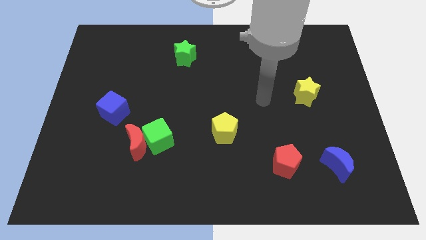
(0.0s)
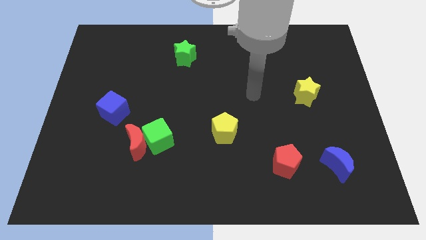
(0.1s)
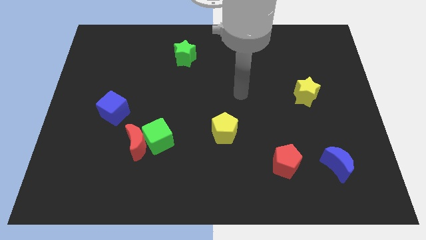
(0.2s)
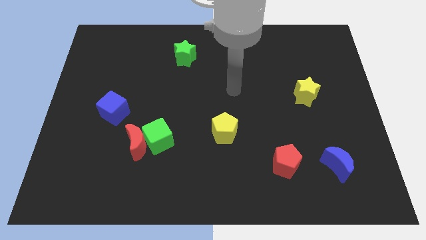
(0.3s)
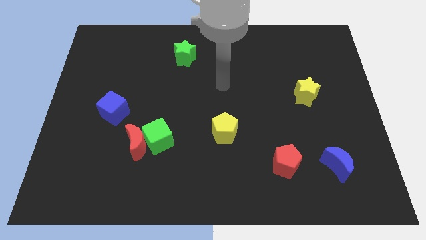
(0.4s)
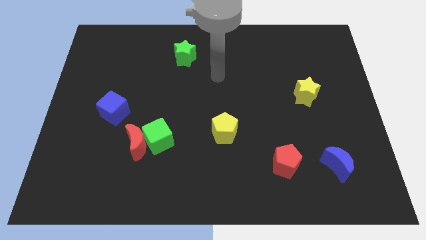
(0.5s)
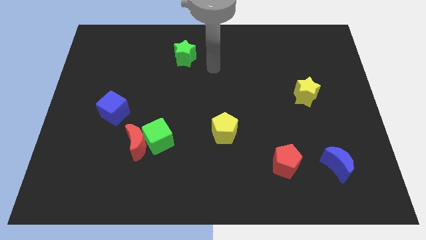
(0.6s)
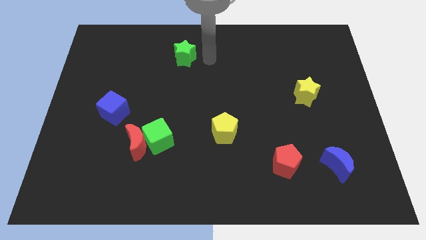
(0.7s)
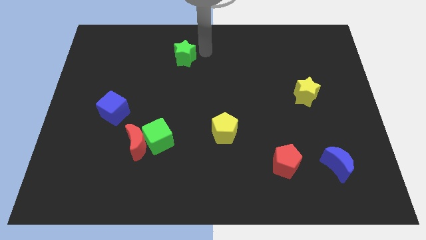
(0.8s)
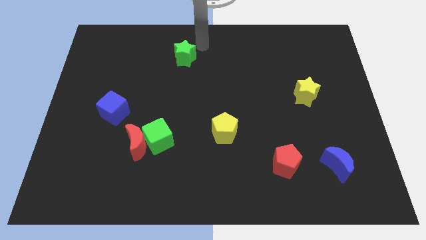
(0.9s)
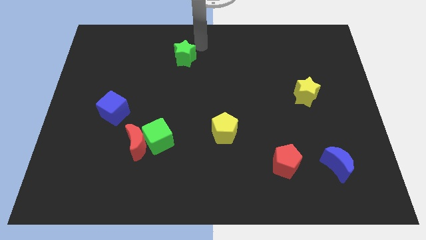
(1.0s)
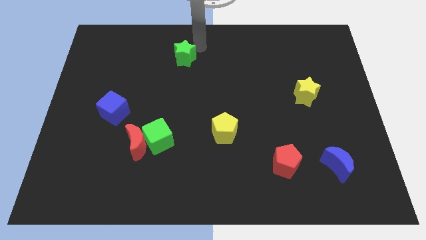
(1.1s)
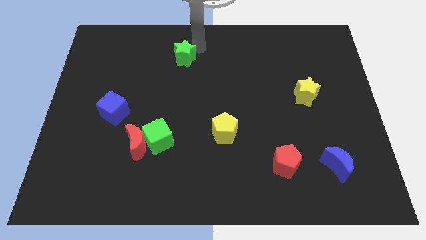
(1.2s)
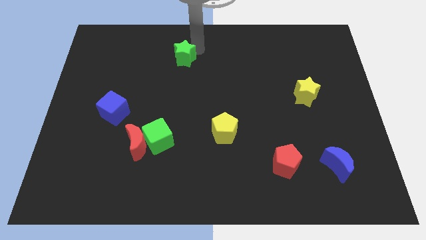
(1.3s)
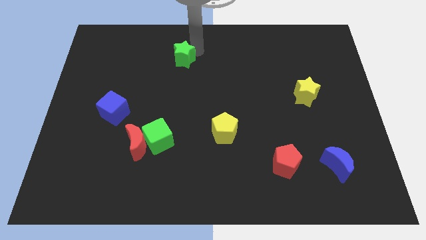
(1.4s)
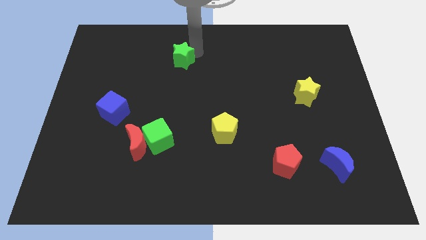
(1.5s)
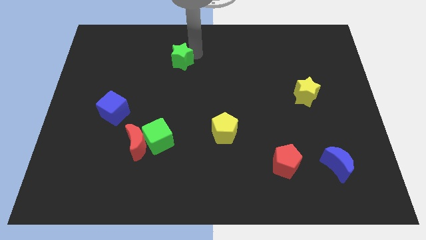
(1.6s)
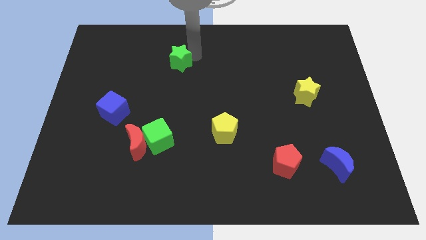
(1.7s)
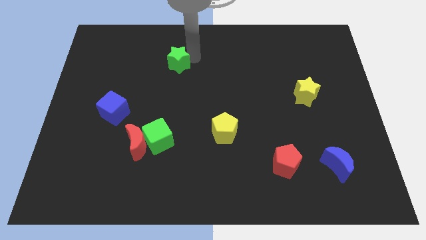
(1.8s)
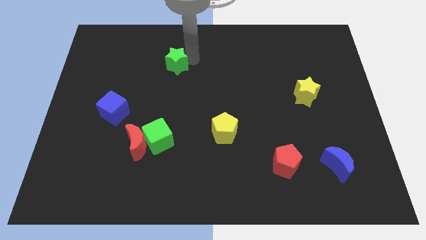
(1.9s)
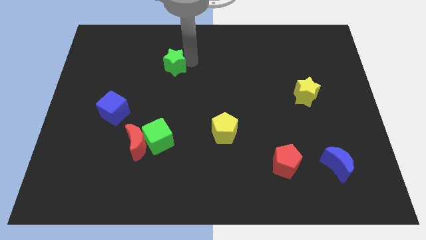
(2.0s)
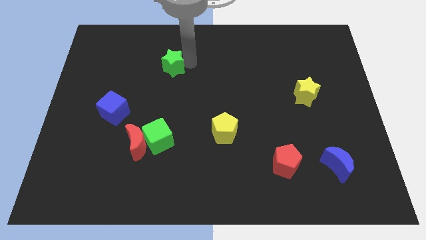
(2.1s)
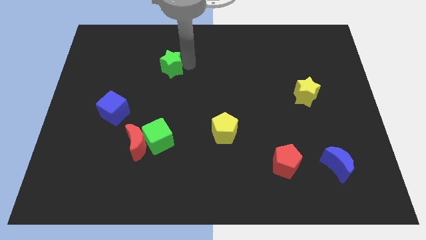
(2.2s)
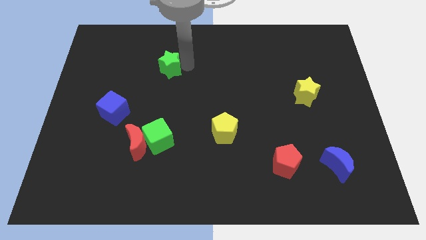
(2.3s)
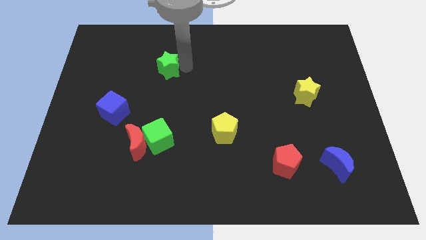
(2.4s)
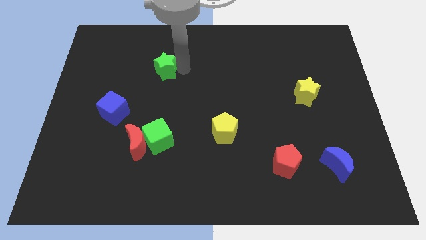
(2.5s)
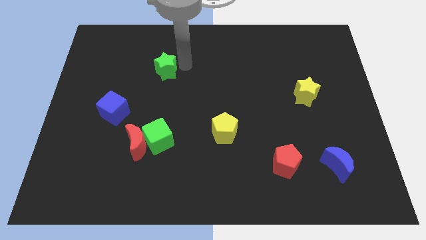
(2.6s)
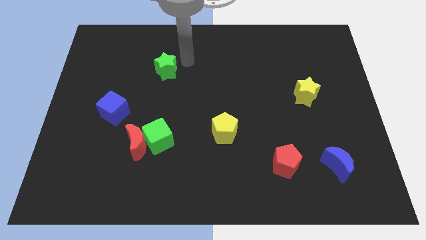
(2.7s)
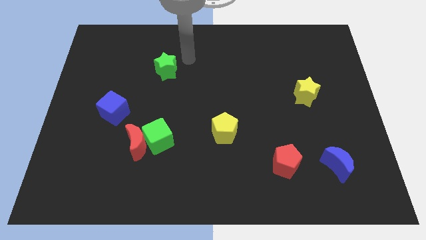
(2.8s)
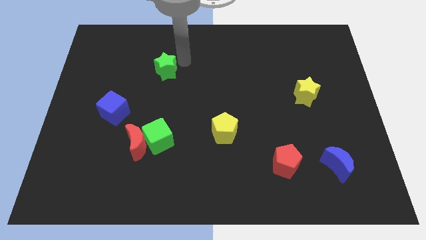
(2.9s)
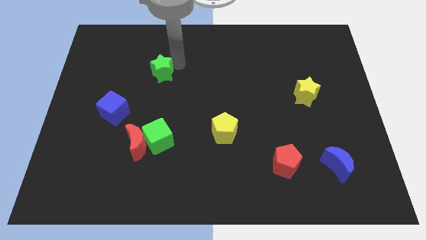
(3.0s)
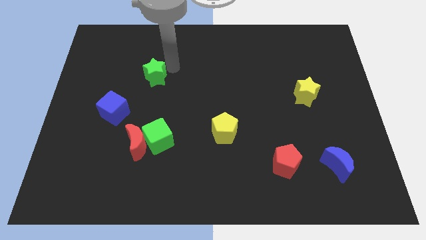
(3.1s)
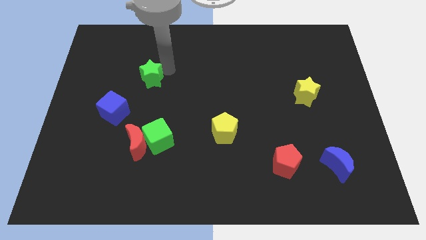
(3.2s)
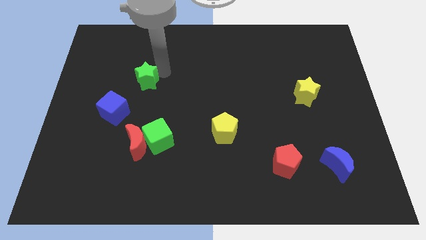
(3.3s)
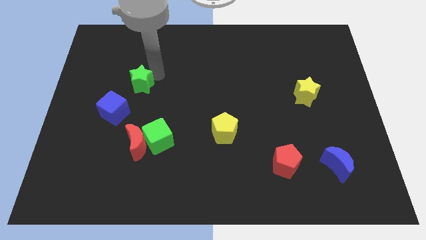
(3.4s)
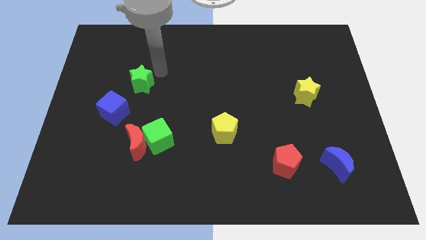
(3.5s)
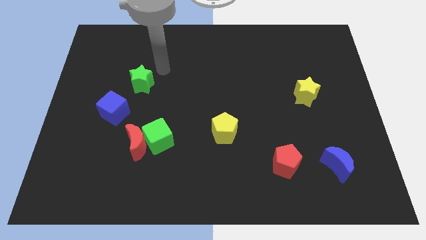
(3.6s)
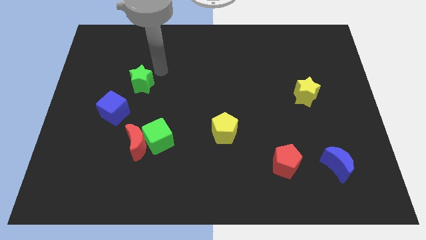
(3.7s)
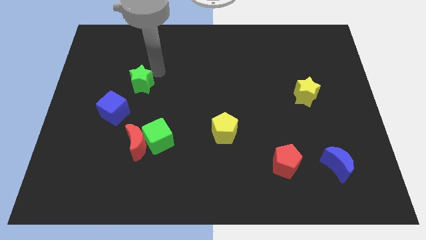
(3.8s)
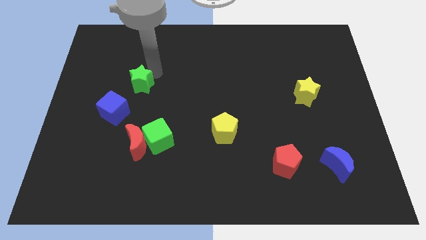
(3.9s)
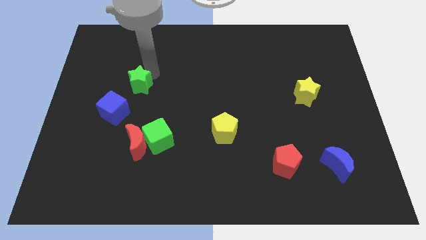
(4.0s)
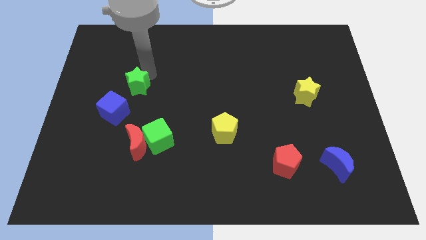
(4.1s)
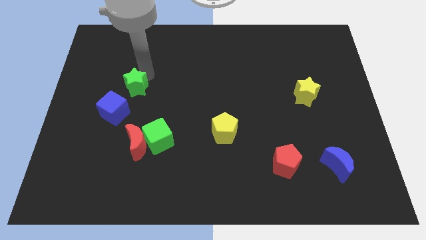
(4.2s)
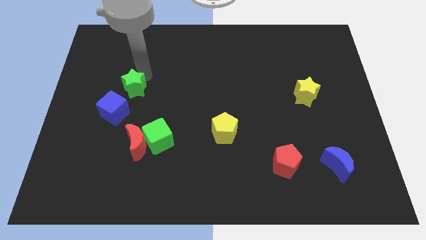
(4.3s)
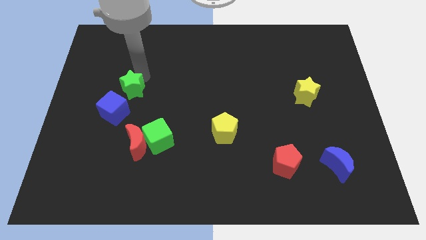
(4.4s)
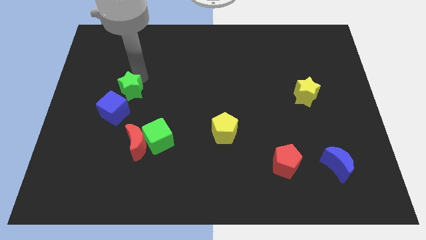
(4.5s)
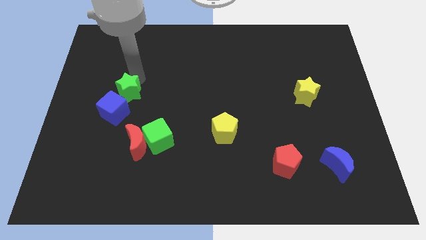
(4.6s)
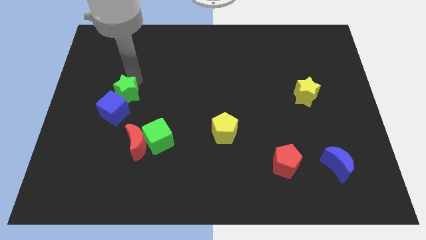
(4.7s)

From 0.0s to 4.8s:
push the green star close to the blue cube

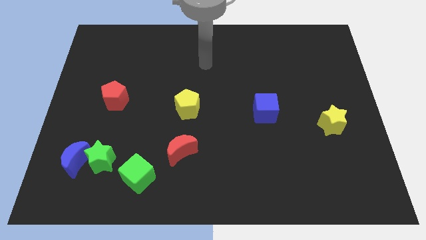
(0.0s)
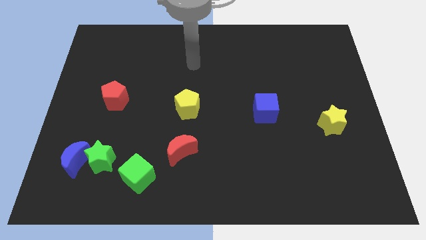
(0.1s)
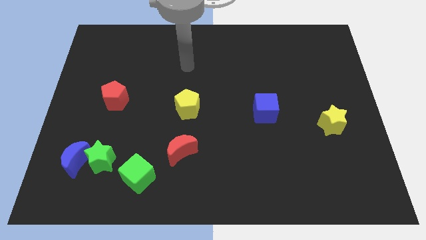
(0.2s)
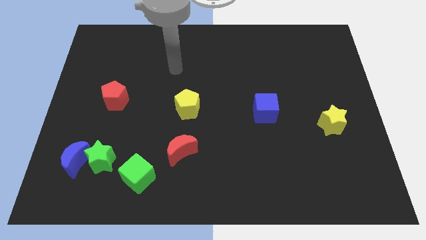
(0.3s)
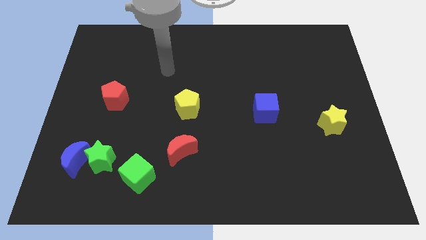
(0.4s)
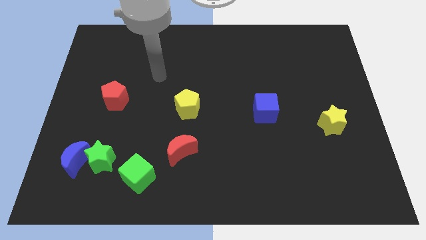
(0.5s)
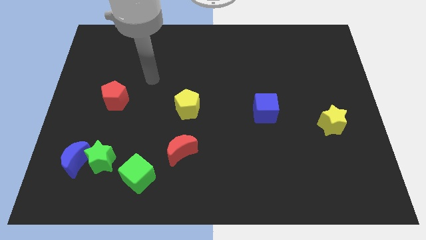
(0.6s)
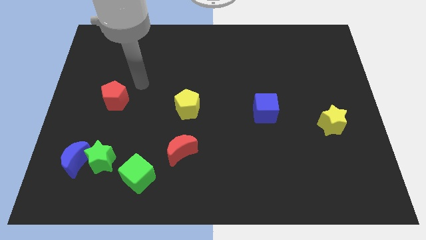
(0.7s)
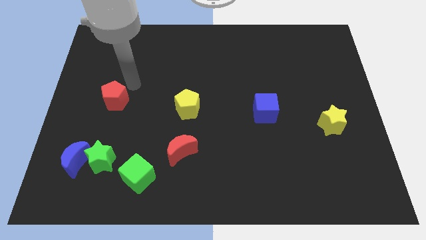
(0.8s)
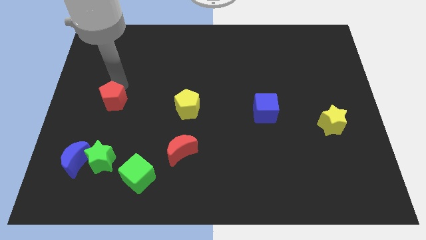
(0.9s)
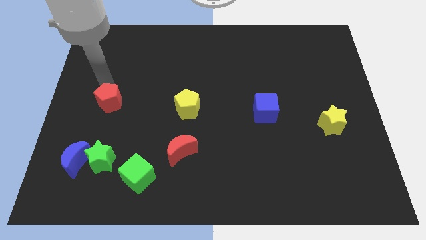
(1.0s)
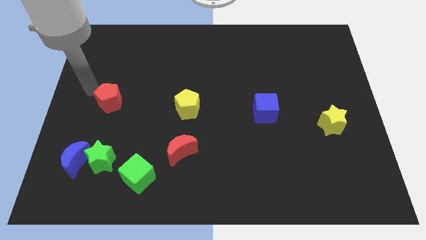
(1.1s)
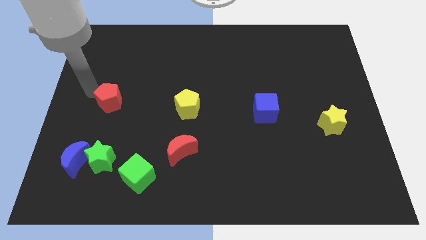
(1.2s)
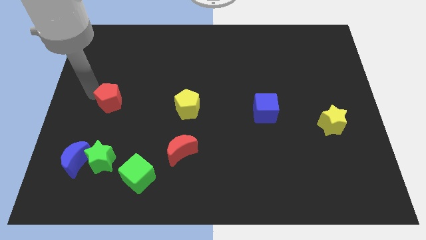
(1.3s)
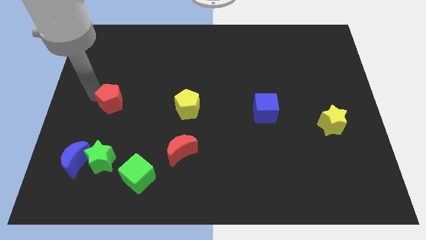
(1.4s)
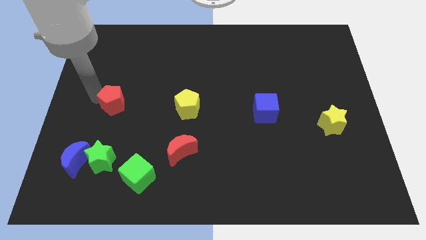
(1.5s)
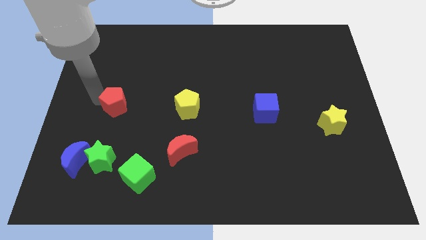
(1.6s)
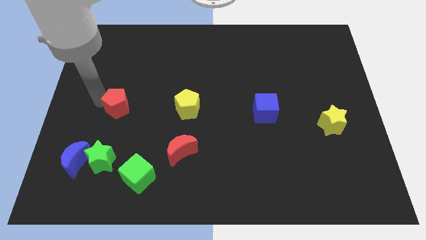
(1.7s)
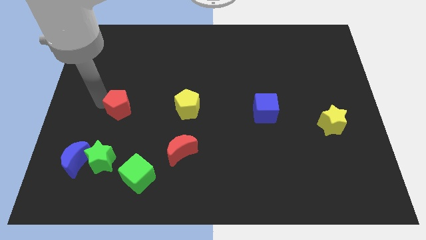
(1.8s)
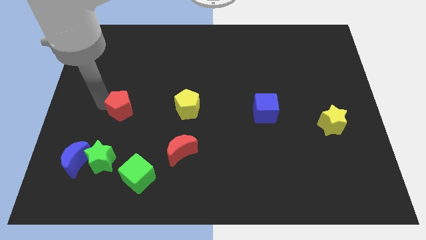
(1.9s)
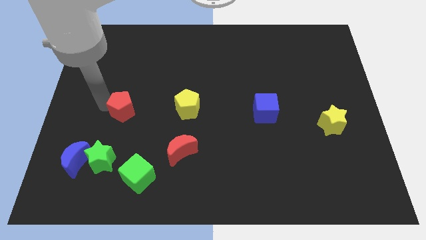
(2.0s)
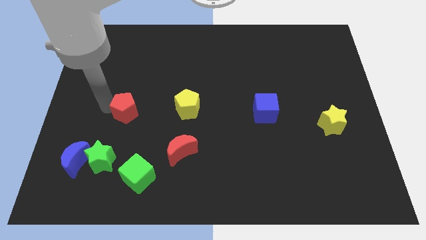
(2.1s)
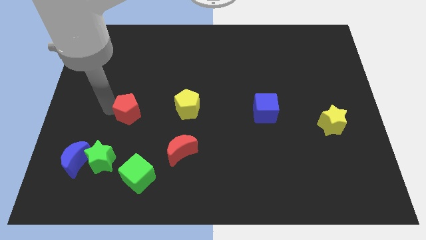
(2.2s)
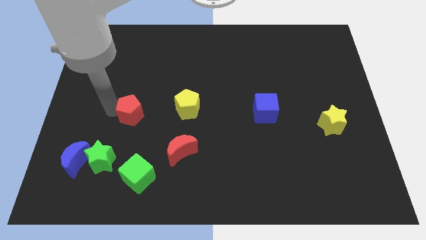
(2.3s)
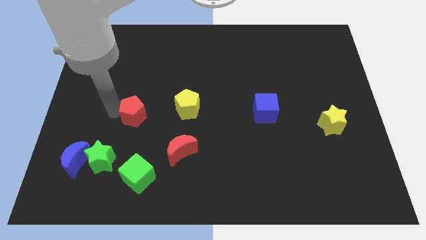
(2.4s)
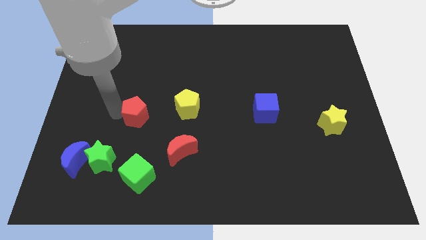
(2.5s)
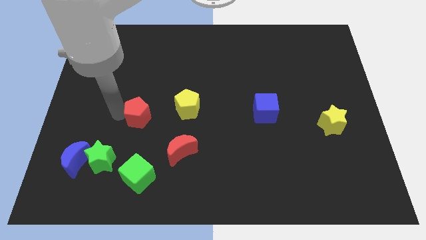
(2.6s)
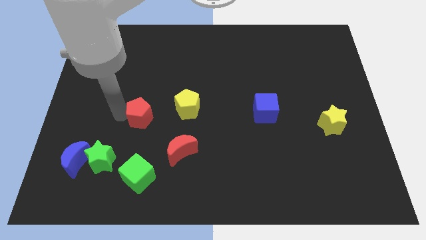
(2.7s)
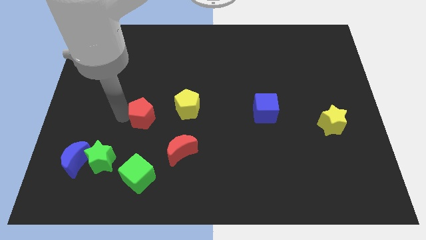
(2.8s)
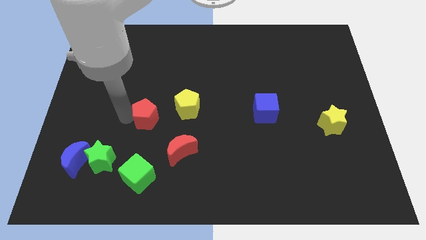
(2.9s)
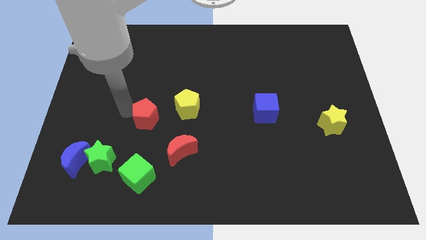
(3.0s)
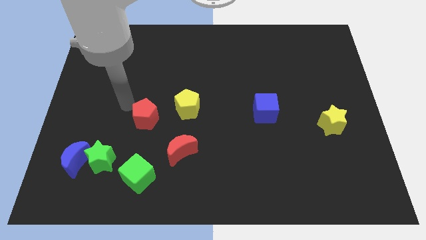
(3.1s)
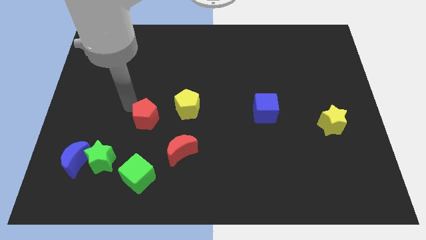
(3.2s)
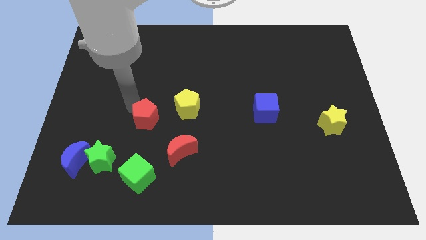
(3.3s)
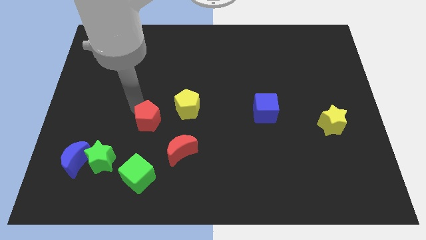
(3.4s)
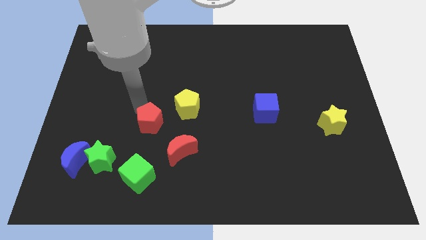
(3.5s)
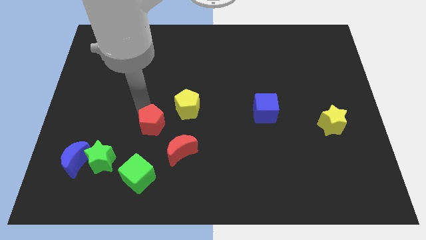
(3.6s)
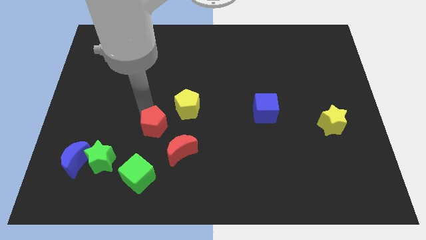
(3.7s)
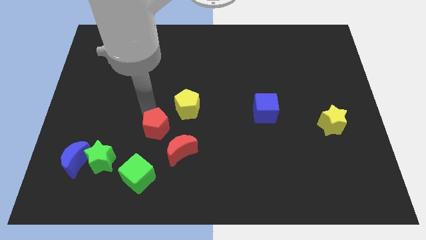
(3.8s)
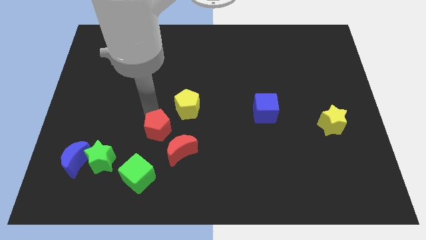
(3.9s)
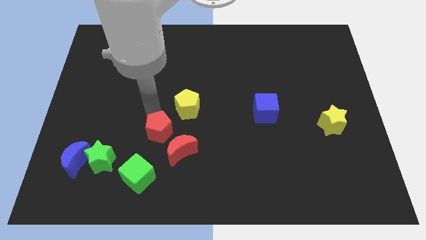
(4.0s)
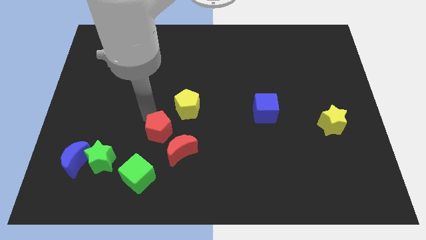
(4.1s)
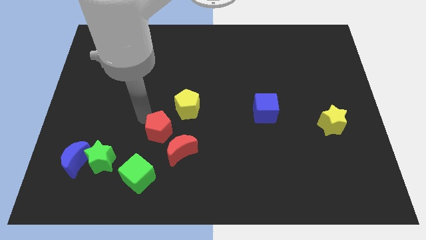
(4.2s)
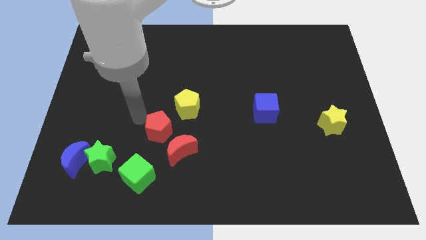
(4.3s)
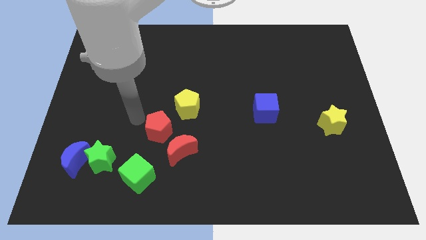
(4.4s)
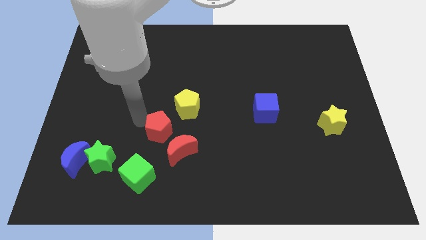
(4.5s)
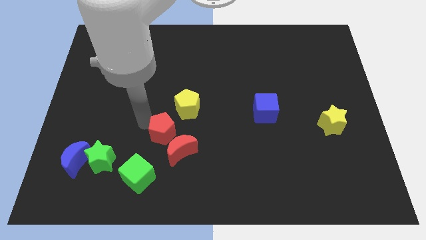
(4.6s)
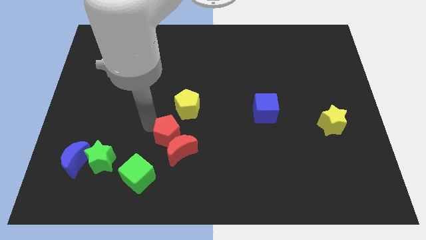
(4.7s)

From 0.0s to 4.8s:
move the red pentagon close to the red moon
